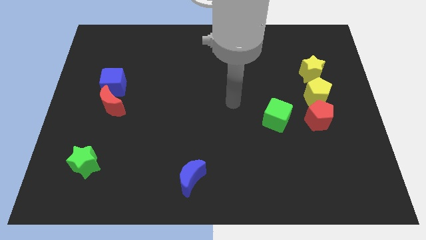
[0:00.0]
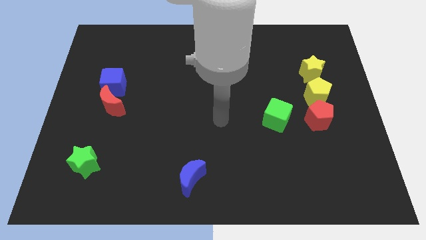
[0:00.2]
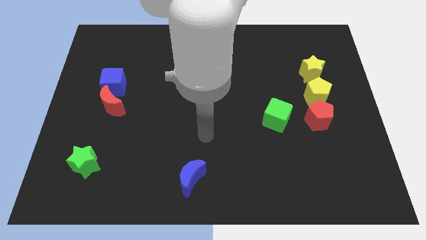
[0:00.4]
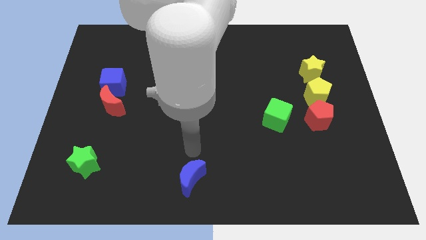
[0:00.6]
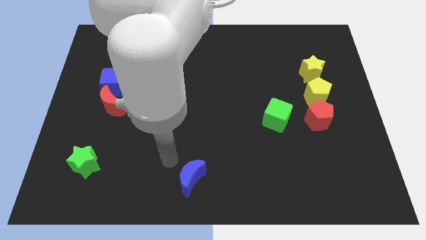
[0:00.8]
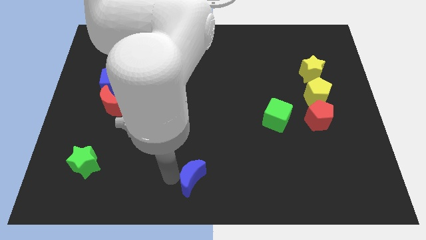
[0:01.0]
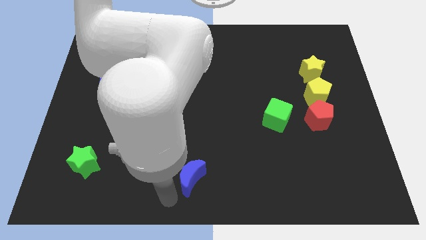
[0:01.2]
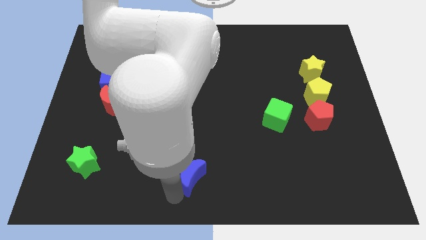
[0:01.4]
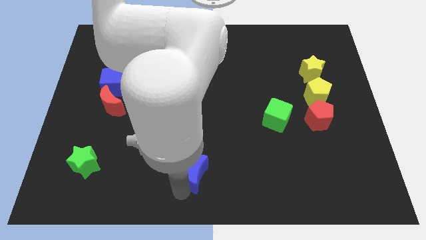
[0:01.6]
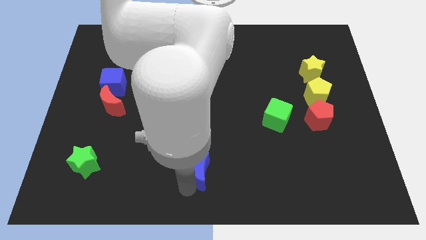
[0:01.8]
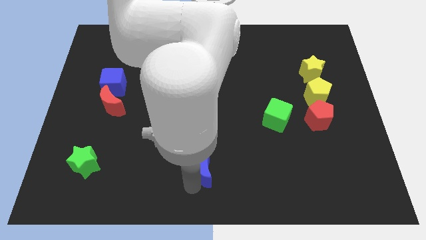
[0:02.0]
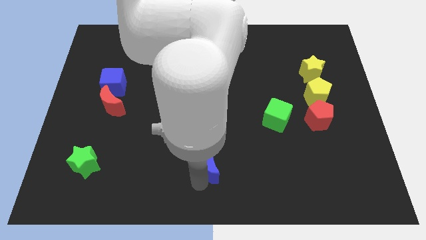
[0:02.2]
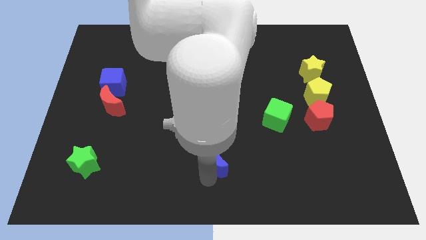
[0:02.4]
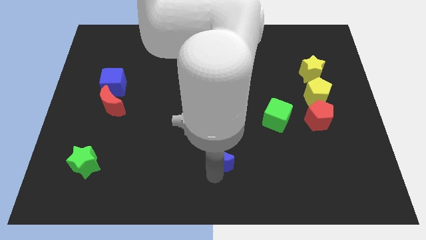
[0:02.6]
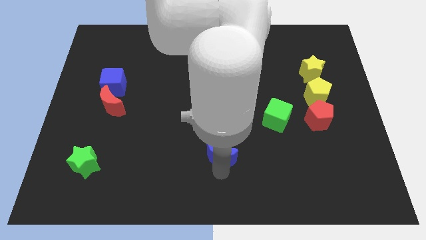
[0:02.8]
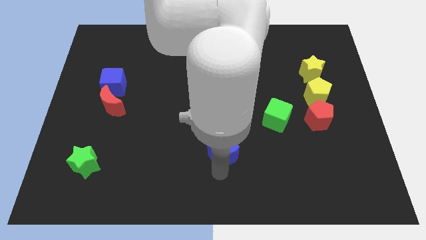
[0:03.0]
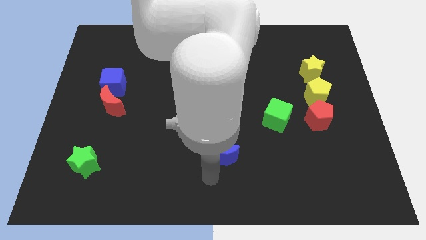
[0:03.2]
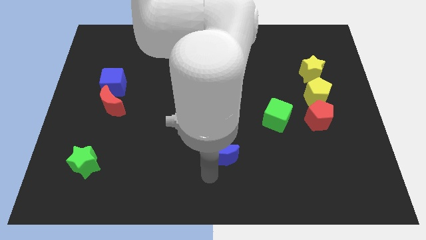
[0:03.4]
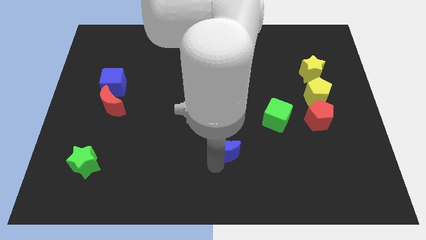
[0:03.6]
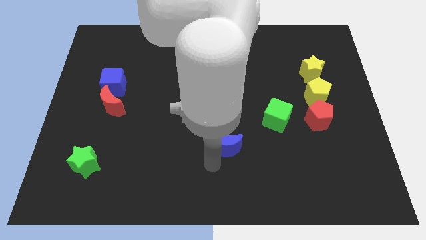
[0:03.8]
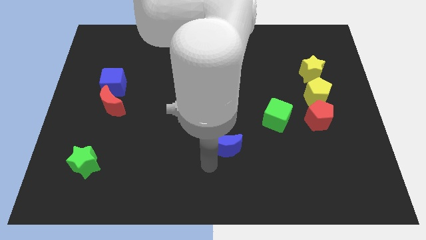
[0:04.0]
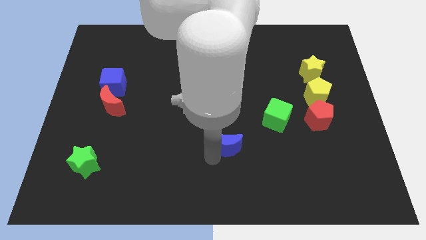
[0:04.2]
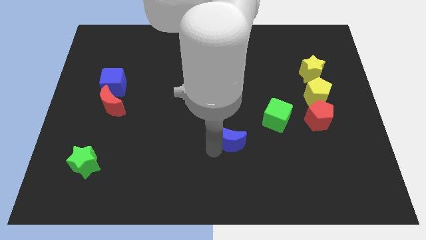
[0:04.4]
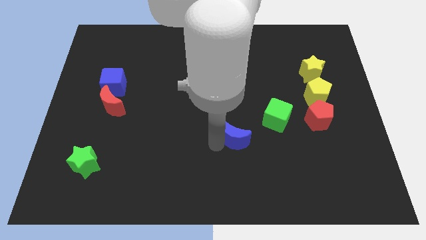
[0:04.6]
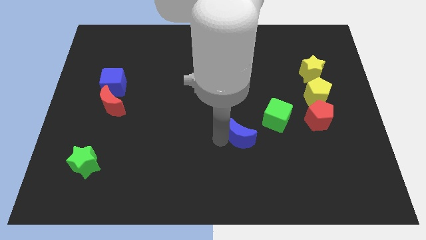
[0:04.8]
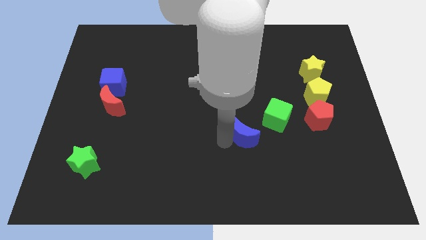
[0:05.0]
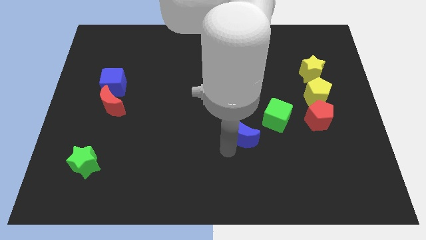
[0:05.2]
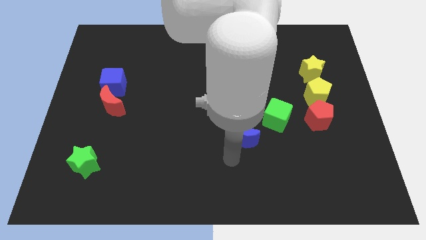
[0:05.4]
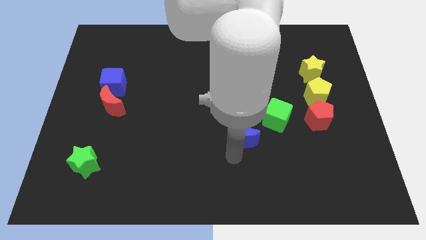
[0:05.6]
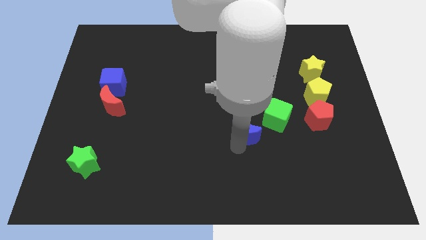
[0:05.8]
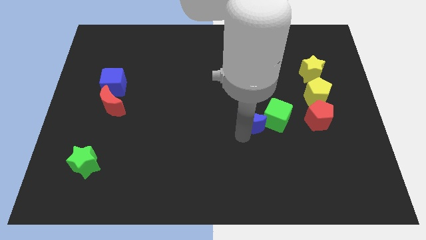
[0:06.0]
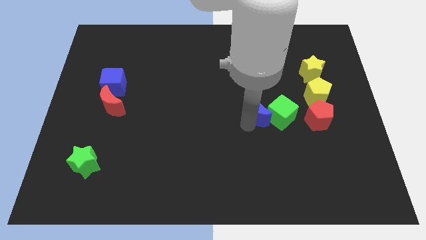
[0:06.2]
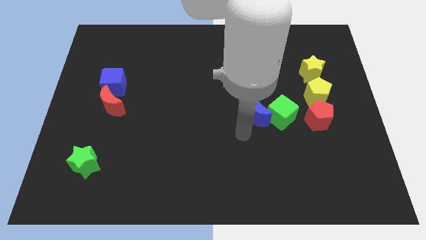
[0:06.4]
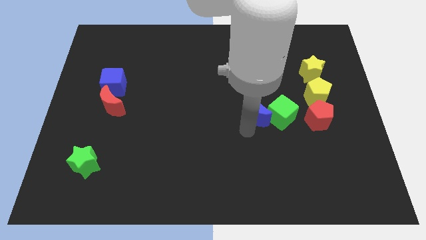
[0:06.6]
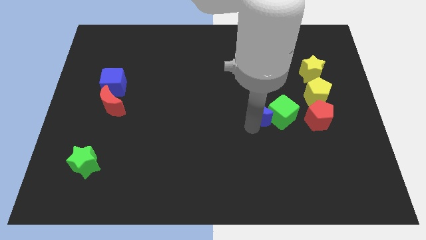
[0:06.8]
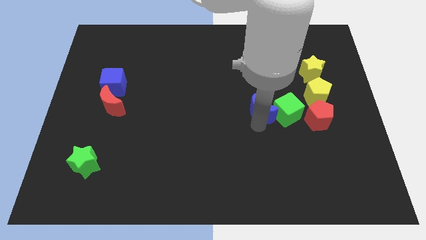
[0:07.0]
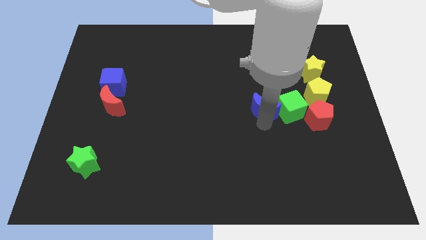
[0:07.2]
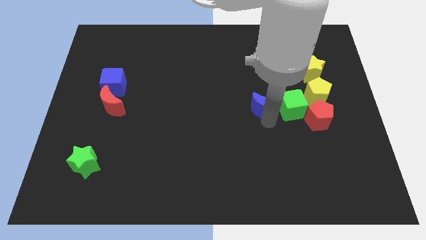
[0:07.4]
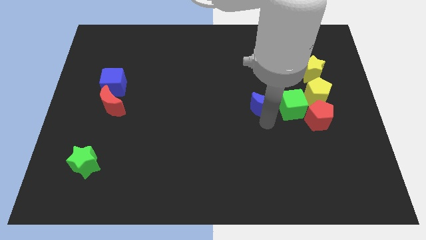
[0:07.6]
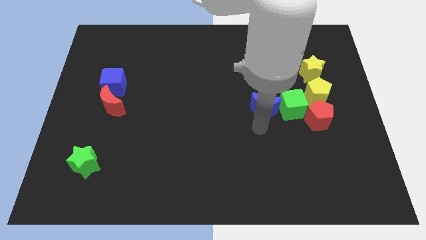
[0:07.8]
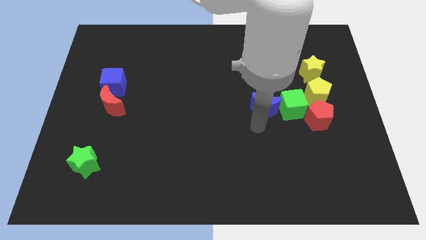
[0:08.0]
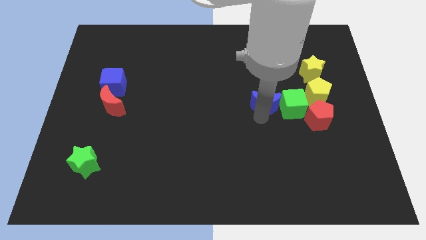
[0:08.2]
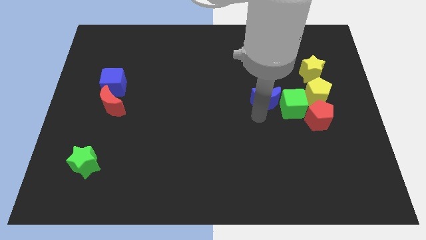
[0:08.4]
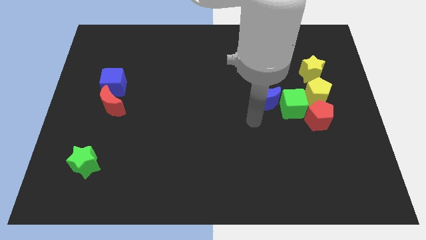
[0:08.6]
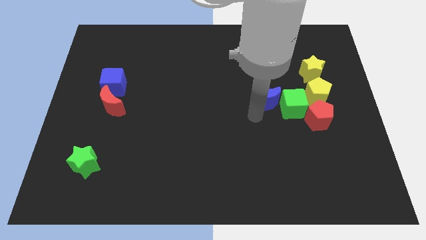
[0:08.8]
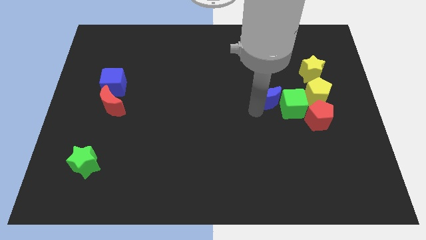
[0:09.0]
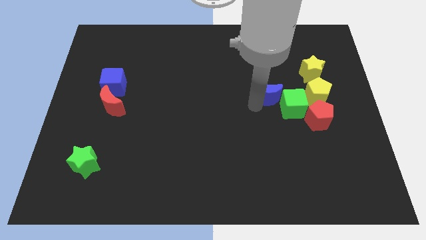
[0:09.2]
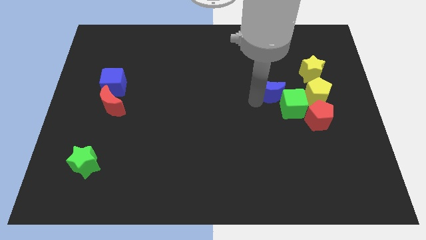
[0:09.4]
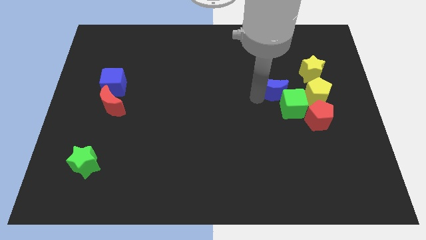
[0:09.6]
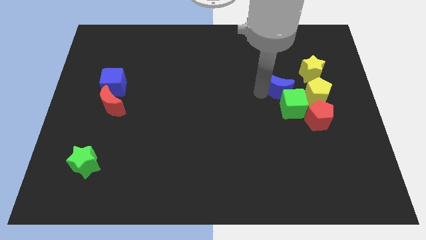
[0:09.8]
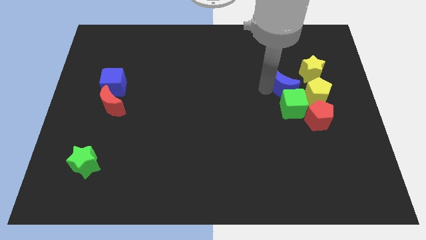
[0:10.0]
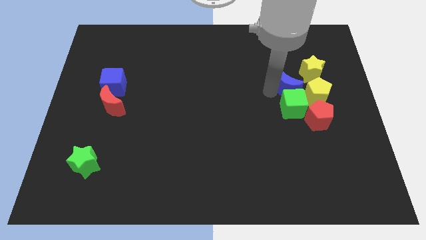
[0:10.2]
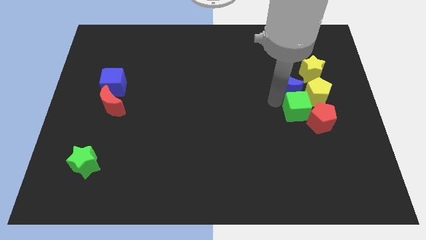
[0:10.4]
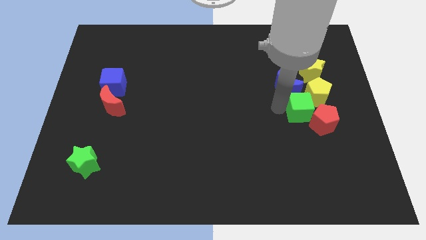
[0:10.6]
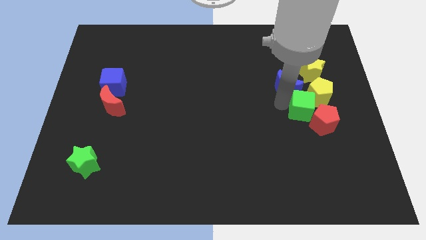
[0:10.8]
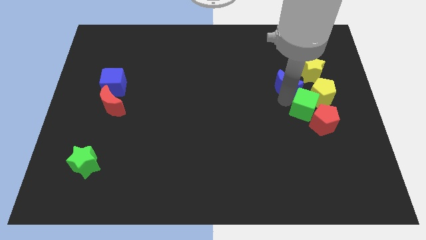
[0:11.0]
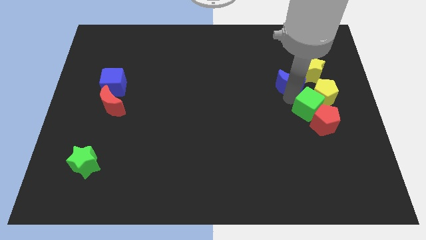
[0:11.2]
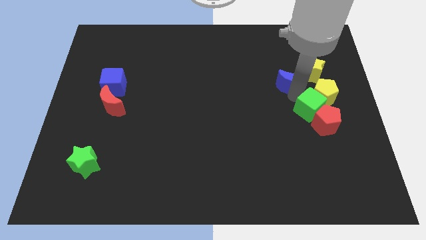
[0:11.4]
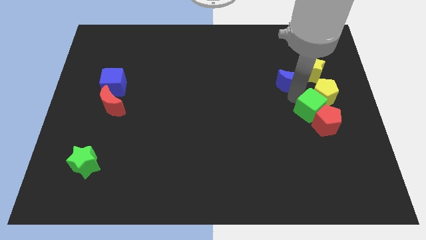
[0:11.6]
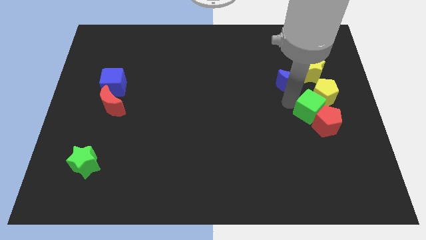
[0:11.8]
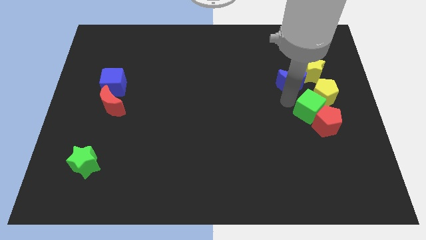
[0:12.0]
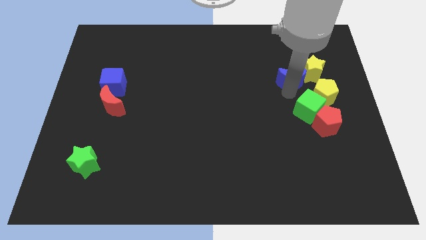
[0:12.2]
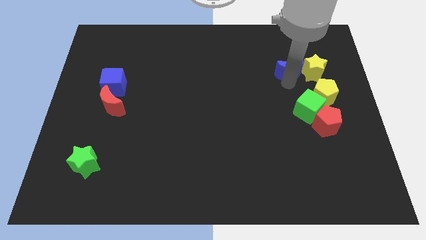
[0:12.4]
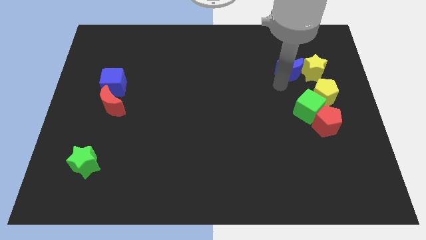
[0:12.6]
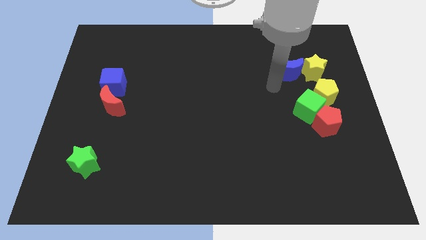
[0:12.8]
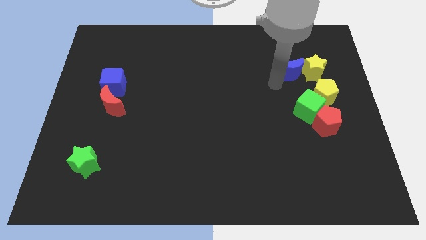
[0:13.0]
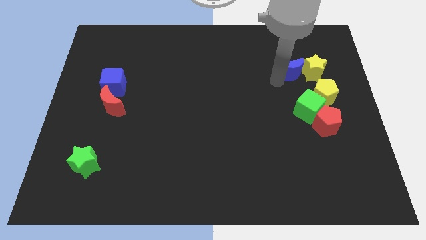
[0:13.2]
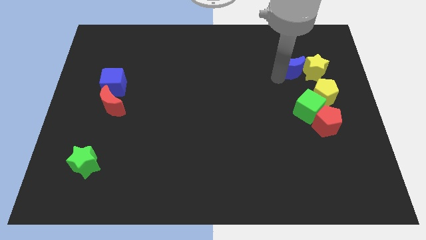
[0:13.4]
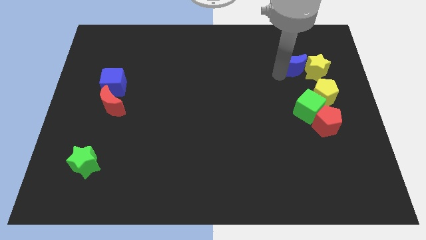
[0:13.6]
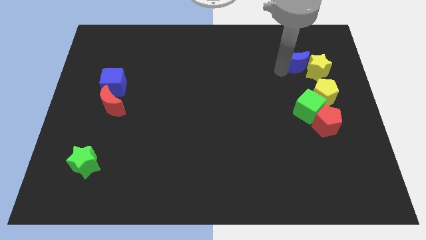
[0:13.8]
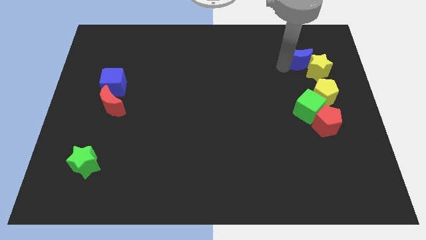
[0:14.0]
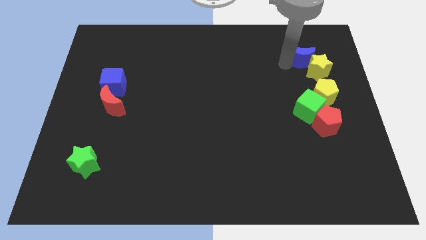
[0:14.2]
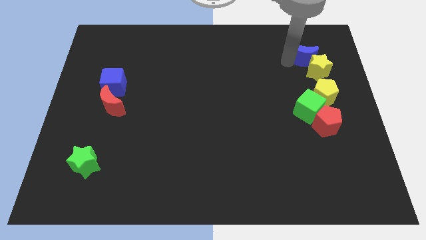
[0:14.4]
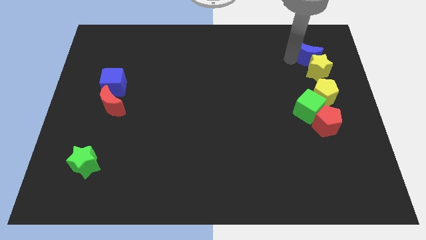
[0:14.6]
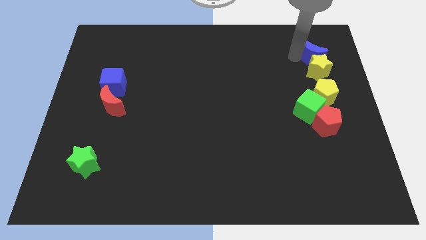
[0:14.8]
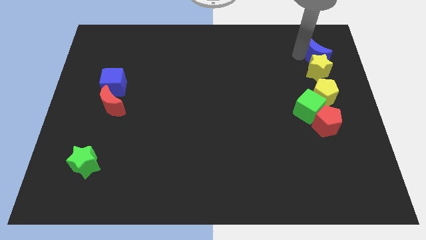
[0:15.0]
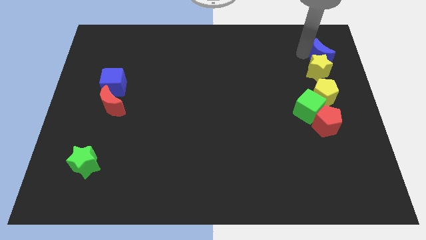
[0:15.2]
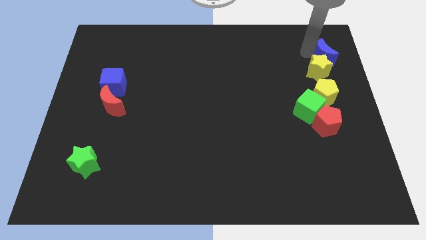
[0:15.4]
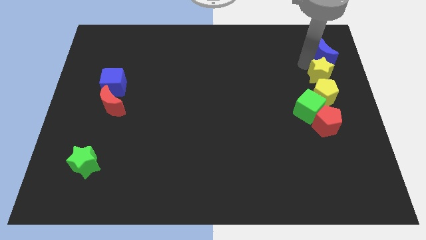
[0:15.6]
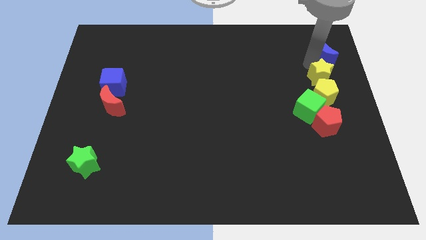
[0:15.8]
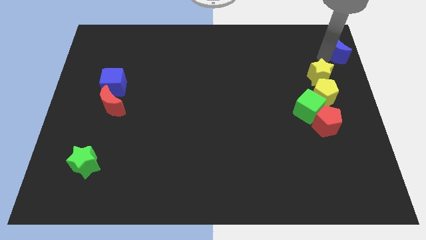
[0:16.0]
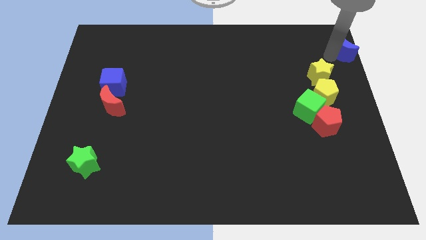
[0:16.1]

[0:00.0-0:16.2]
put the blue moon to the upper right corner
